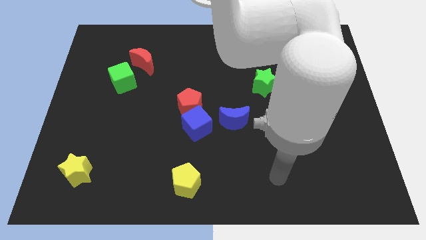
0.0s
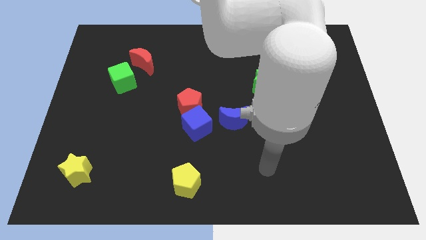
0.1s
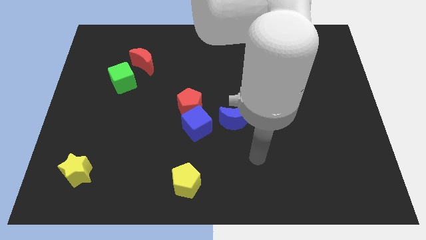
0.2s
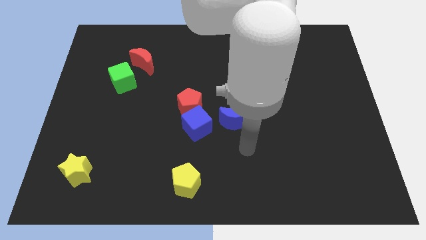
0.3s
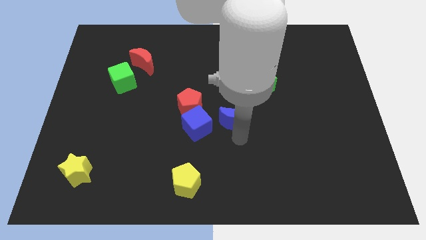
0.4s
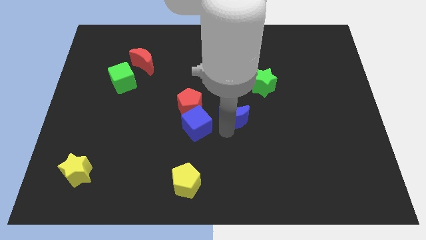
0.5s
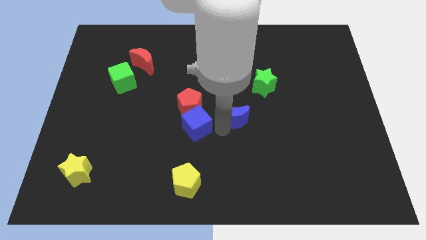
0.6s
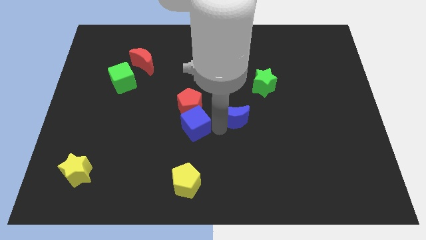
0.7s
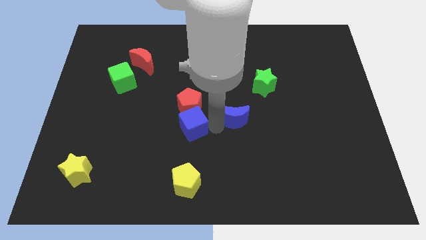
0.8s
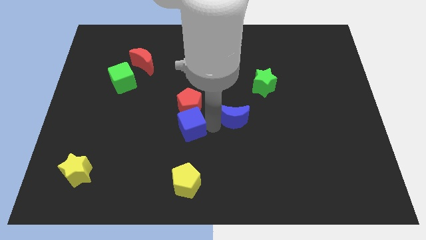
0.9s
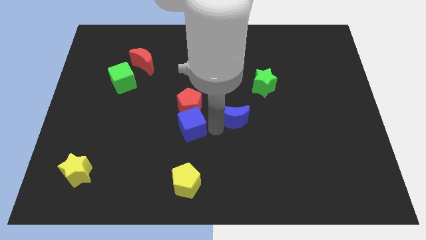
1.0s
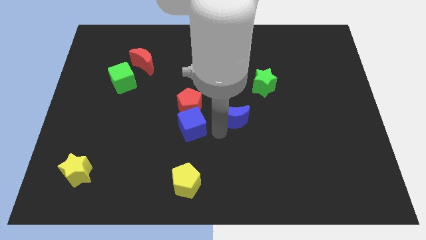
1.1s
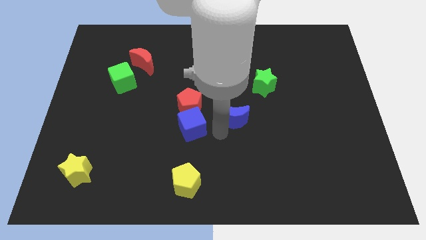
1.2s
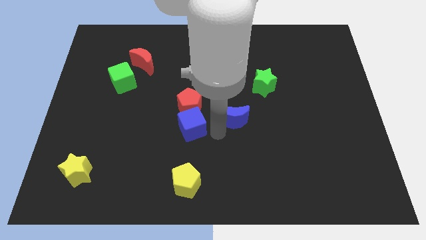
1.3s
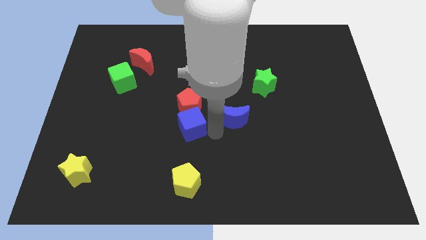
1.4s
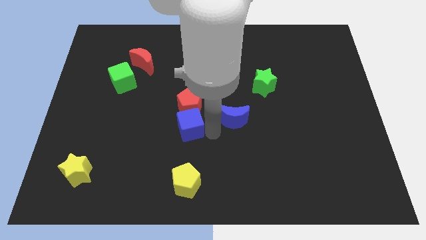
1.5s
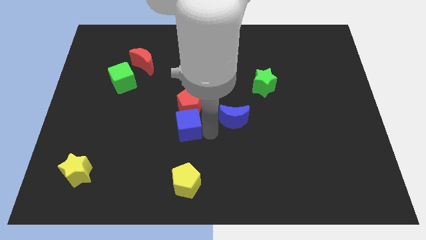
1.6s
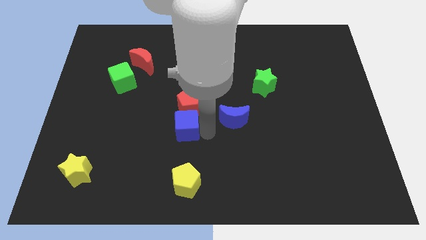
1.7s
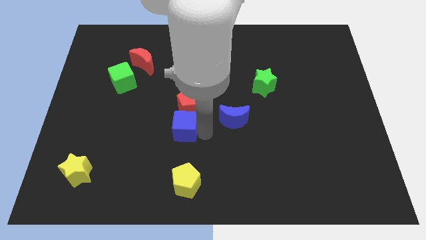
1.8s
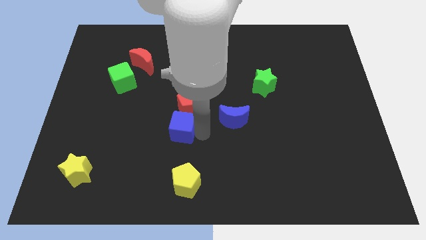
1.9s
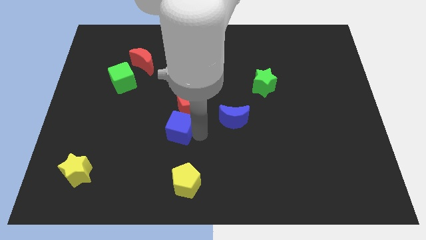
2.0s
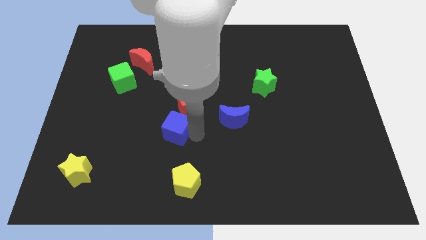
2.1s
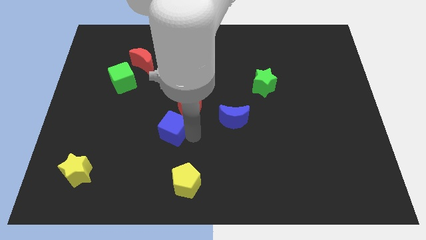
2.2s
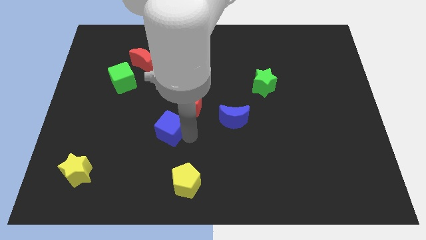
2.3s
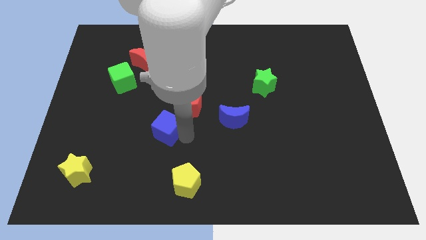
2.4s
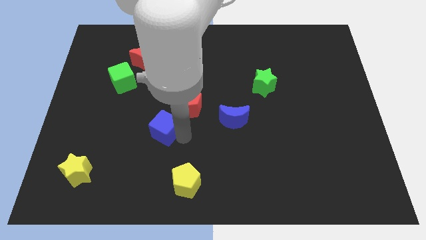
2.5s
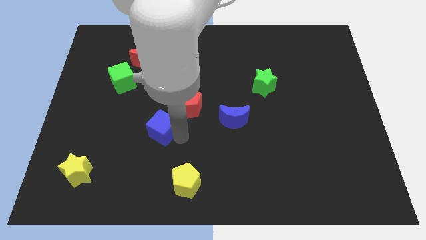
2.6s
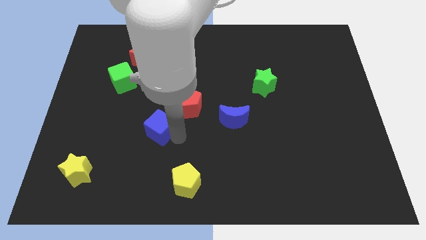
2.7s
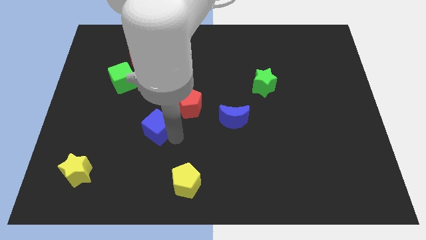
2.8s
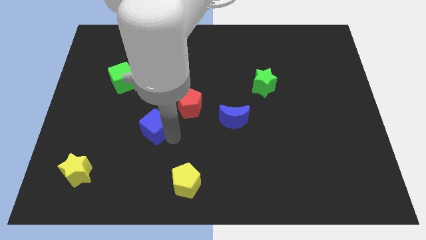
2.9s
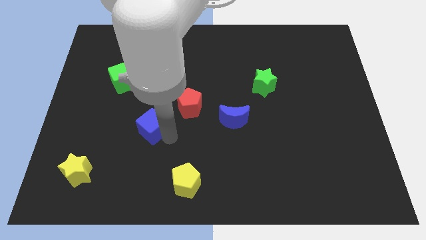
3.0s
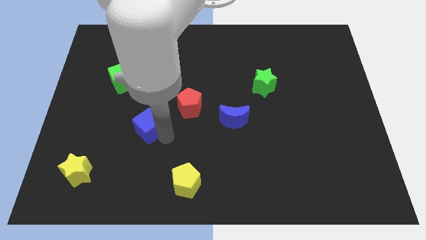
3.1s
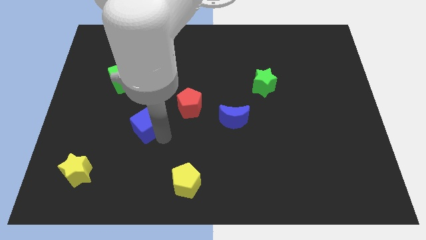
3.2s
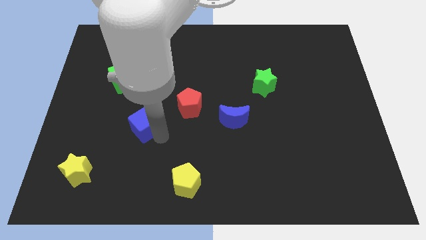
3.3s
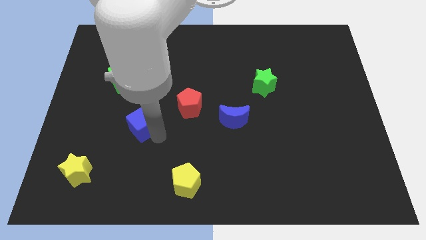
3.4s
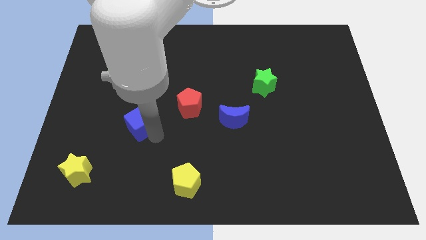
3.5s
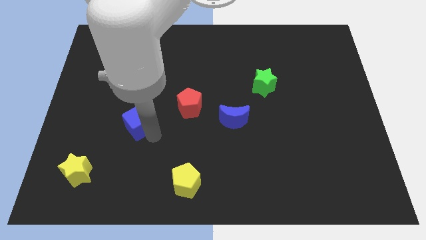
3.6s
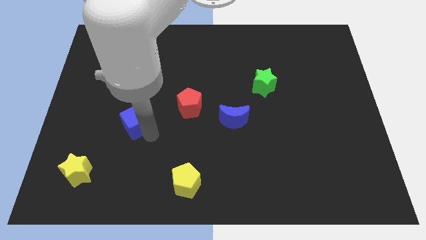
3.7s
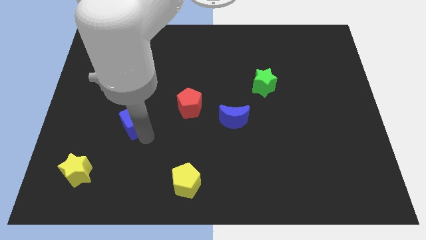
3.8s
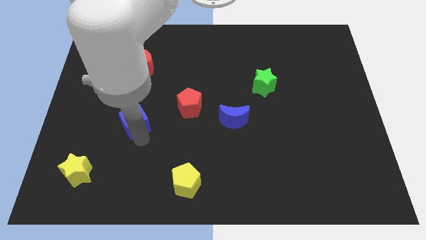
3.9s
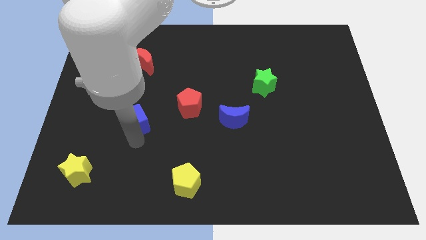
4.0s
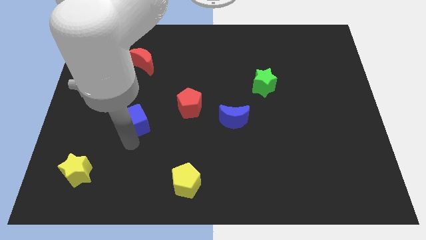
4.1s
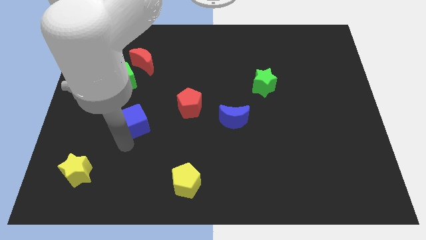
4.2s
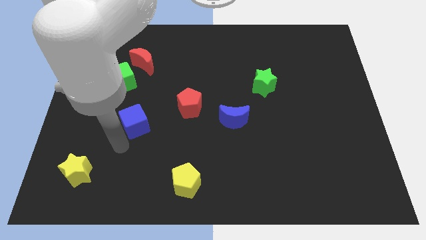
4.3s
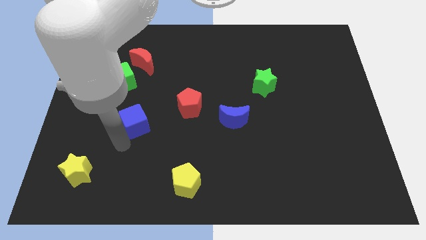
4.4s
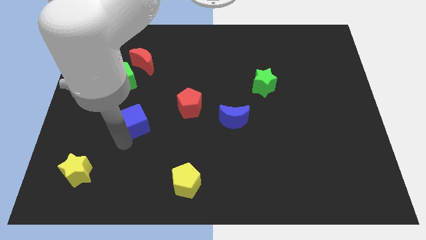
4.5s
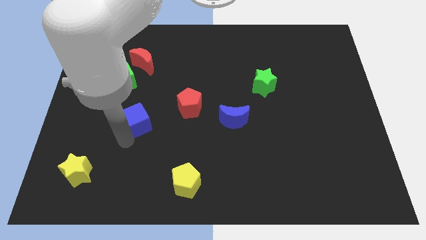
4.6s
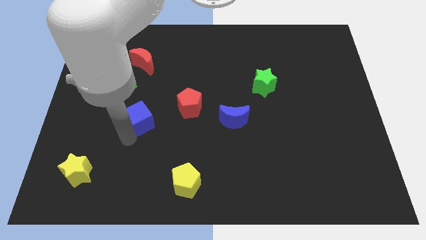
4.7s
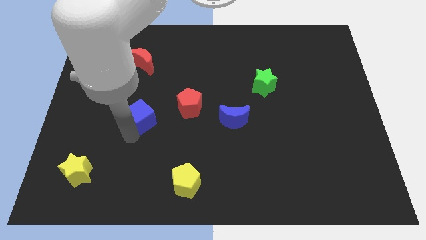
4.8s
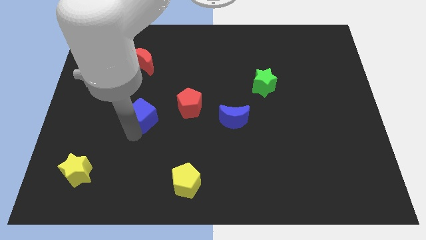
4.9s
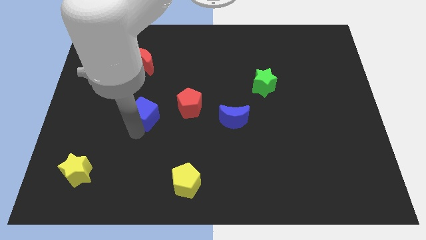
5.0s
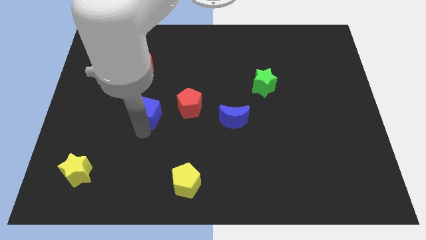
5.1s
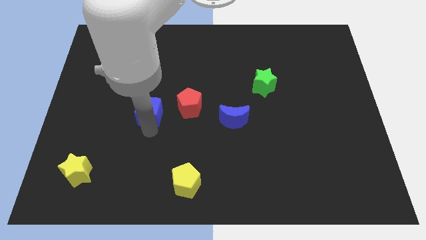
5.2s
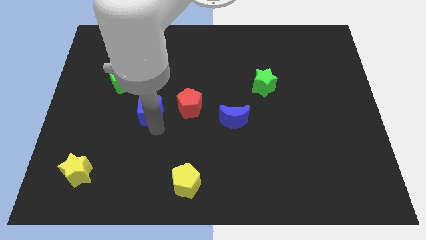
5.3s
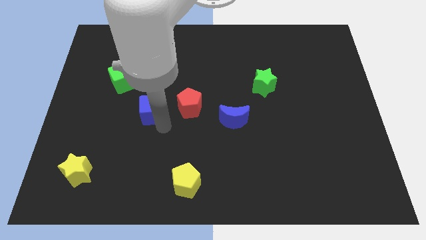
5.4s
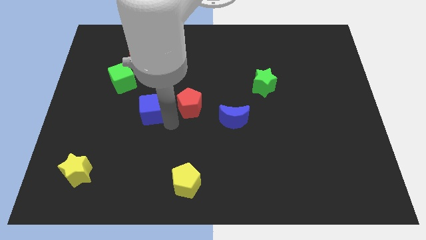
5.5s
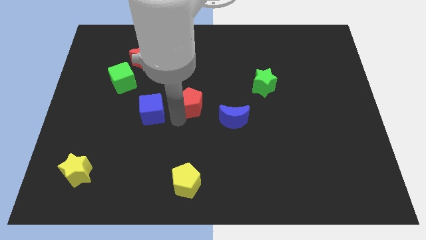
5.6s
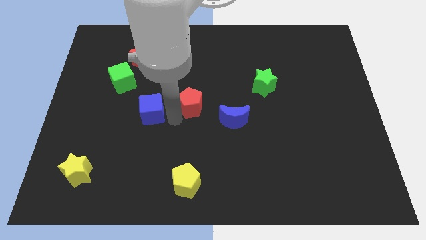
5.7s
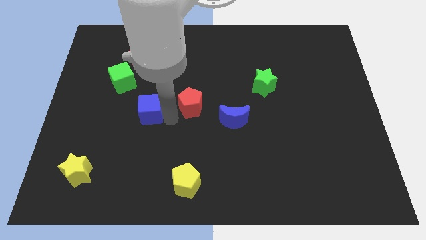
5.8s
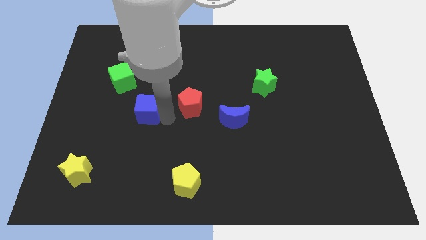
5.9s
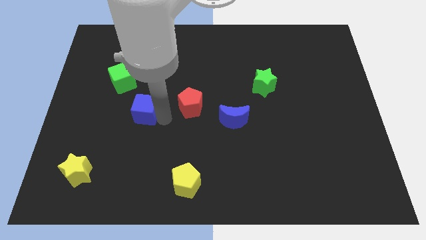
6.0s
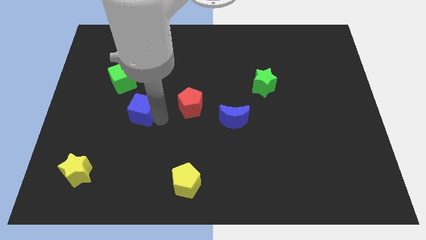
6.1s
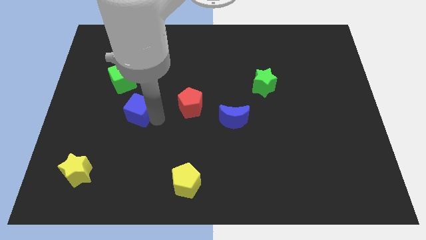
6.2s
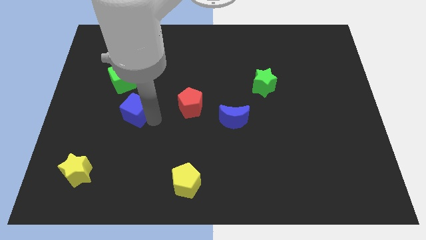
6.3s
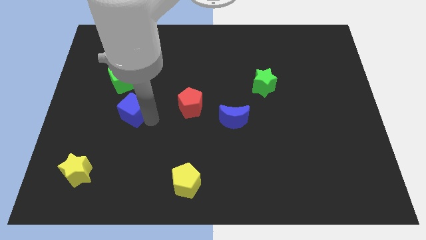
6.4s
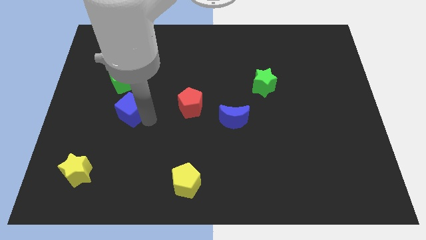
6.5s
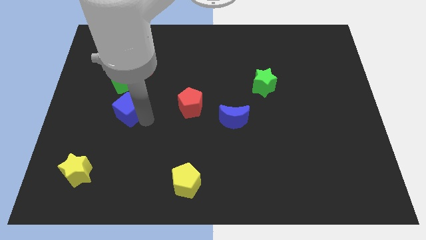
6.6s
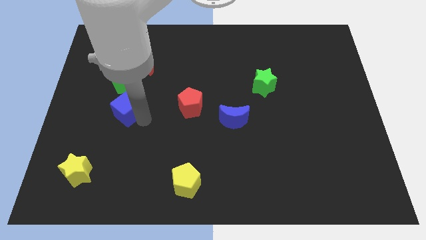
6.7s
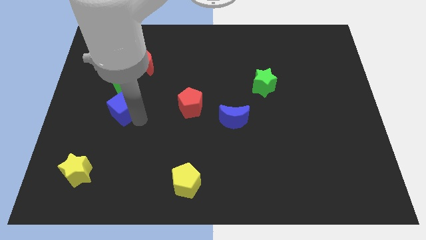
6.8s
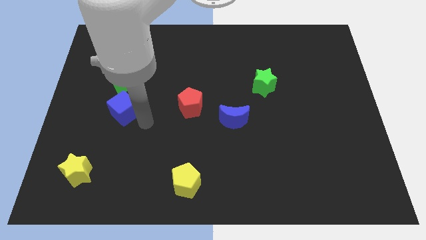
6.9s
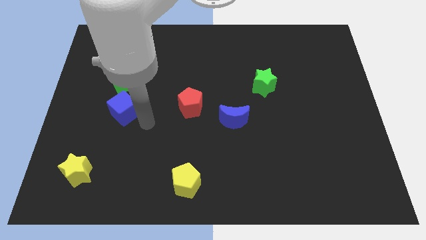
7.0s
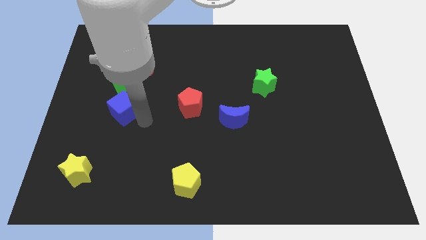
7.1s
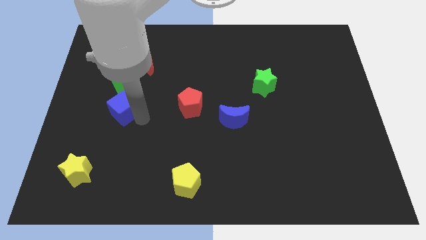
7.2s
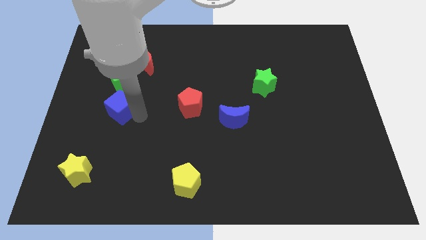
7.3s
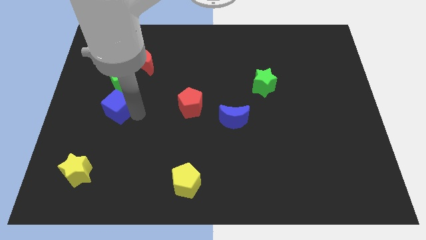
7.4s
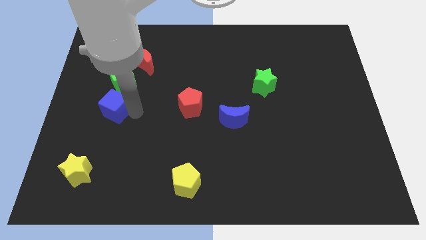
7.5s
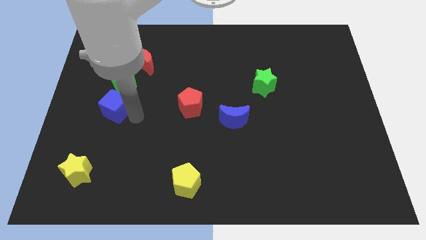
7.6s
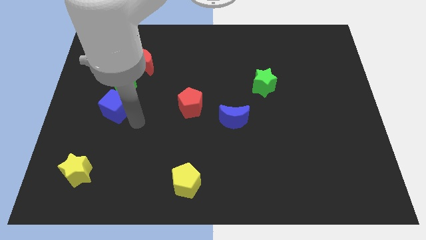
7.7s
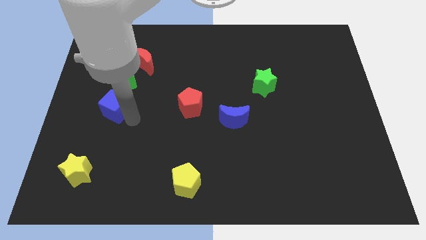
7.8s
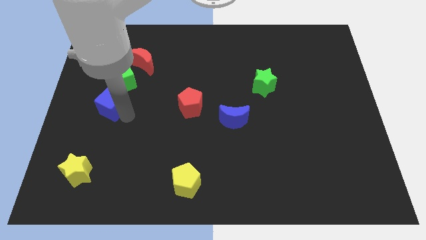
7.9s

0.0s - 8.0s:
move the blue cube diagonally down and to the left of the green cube
